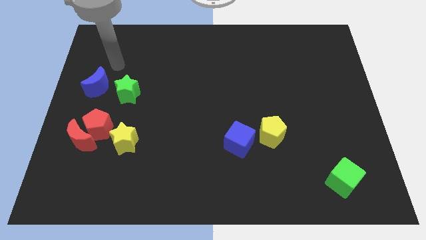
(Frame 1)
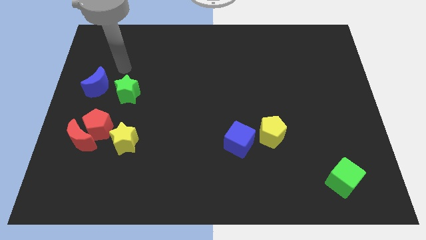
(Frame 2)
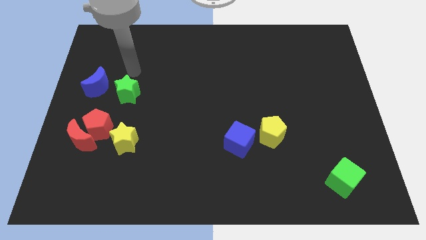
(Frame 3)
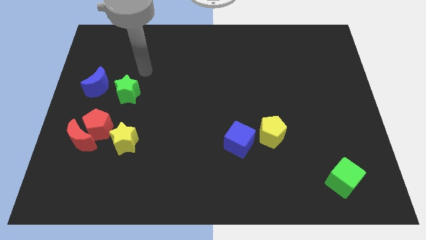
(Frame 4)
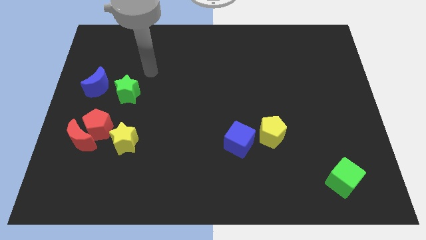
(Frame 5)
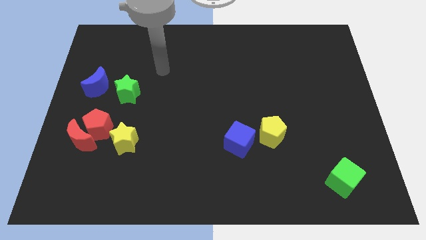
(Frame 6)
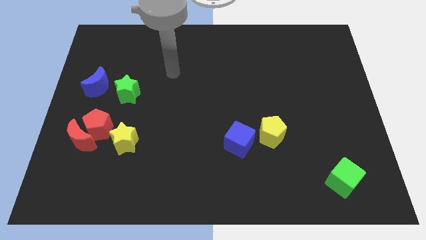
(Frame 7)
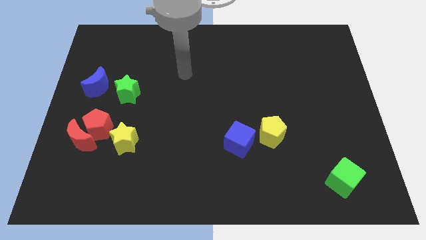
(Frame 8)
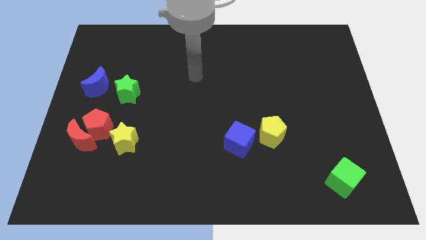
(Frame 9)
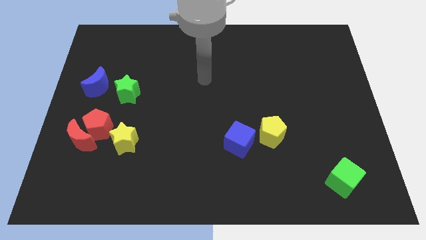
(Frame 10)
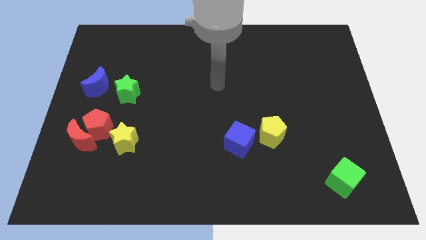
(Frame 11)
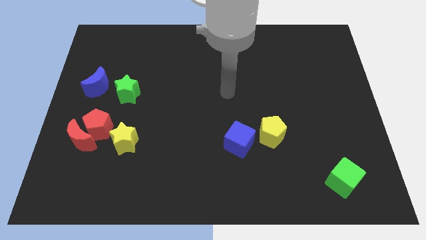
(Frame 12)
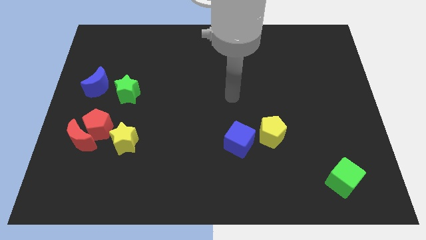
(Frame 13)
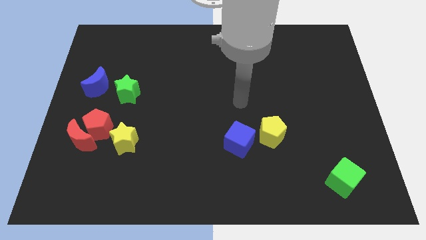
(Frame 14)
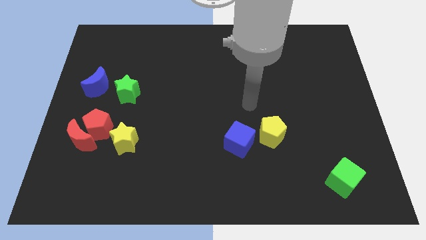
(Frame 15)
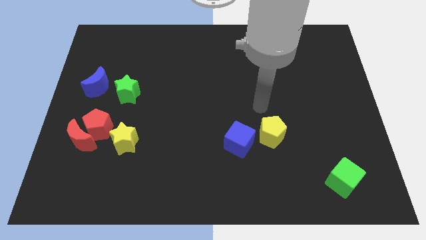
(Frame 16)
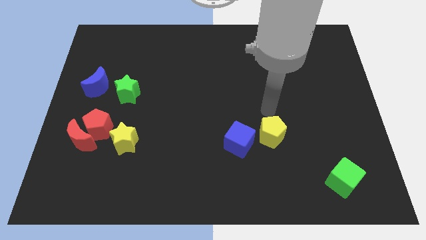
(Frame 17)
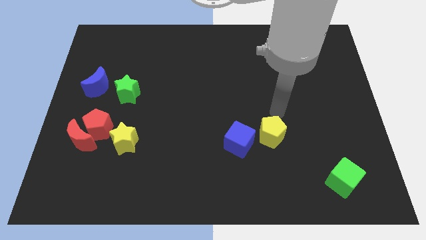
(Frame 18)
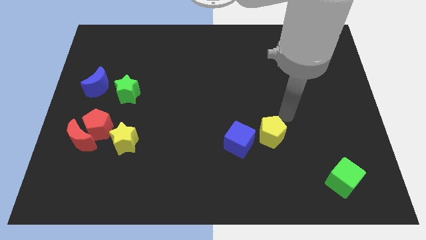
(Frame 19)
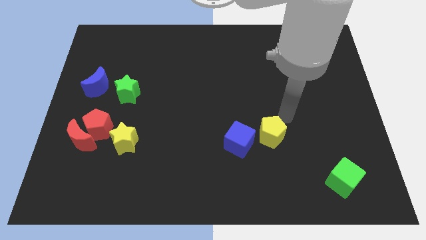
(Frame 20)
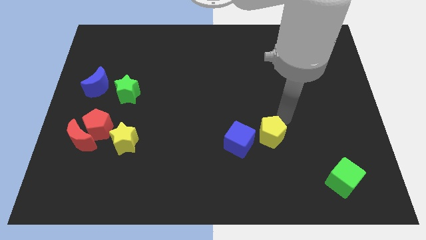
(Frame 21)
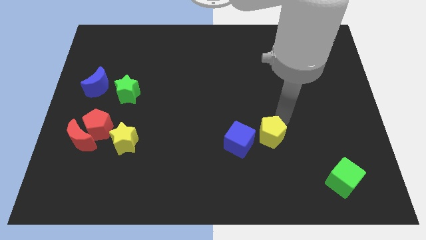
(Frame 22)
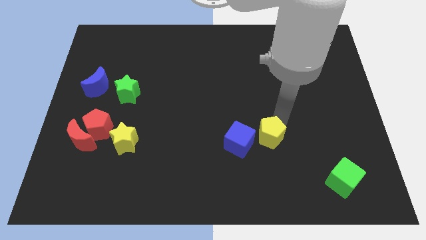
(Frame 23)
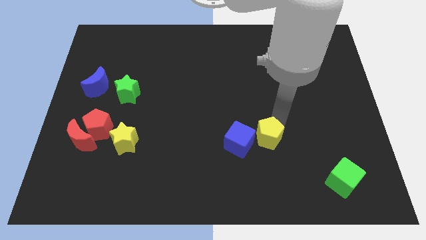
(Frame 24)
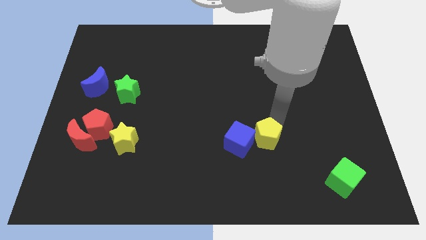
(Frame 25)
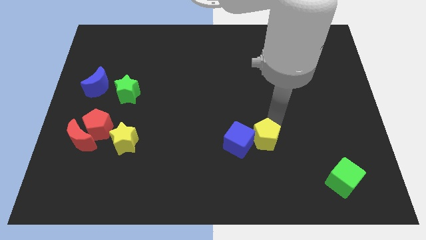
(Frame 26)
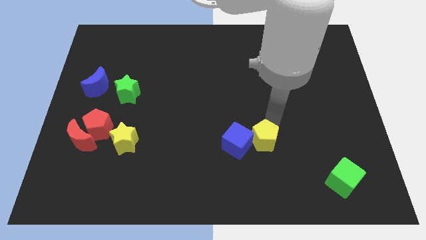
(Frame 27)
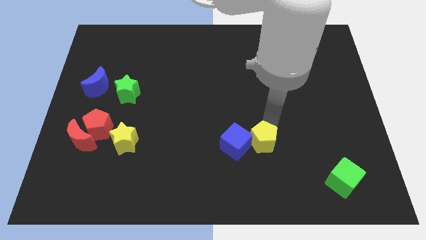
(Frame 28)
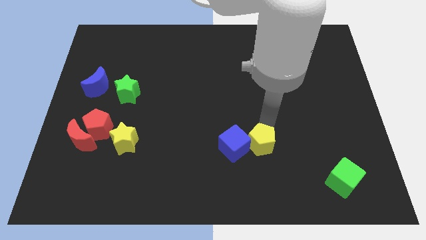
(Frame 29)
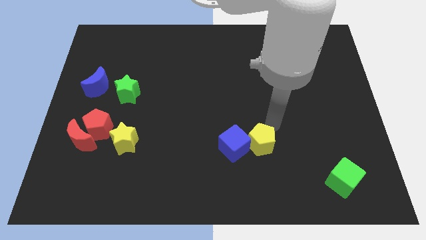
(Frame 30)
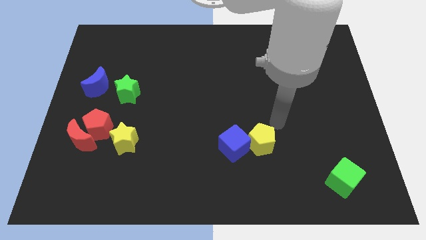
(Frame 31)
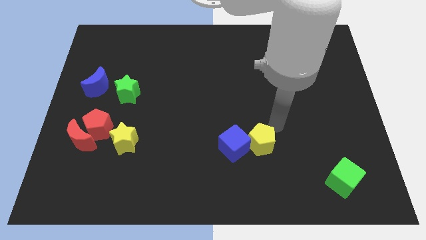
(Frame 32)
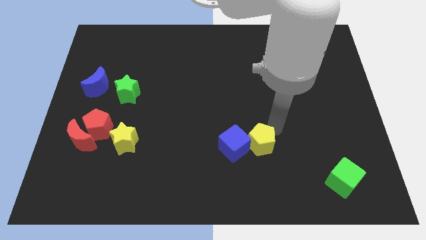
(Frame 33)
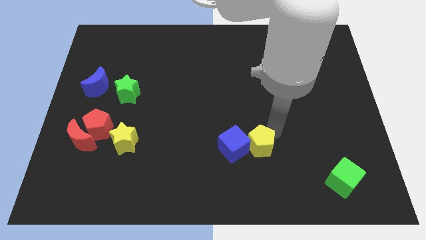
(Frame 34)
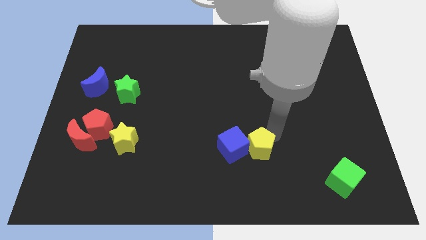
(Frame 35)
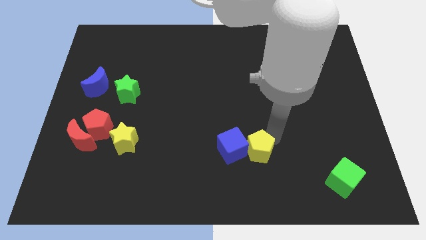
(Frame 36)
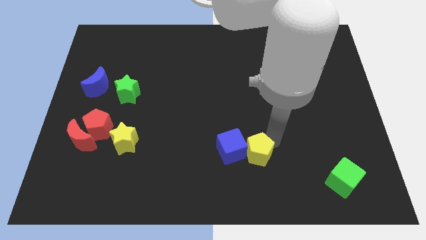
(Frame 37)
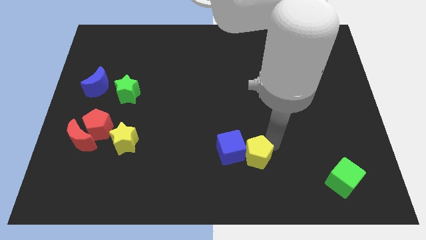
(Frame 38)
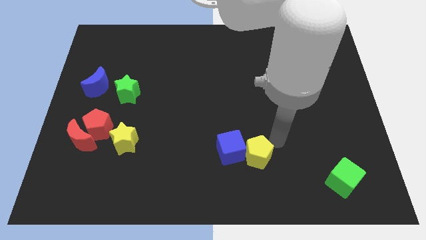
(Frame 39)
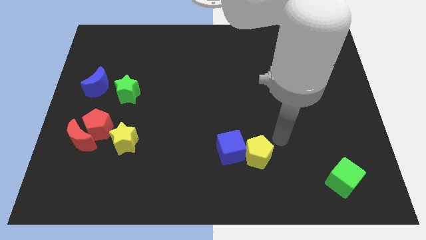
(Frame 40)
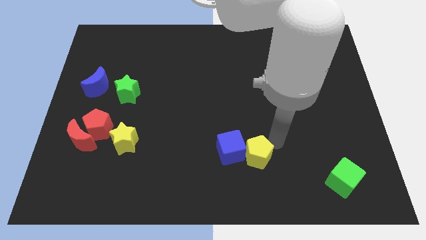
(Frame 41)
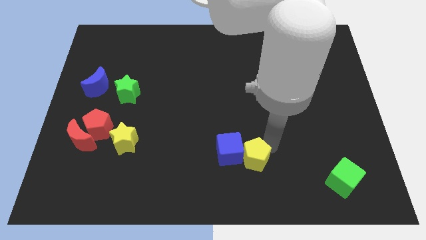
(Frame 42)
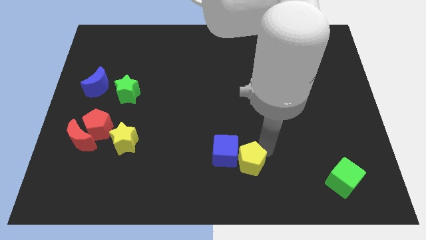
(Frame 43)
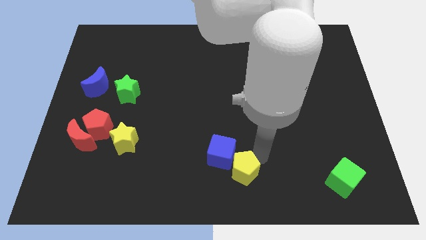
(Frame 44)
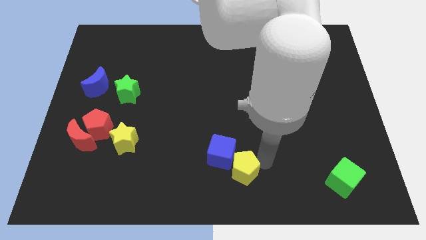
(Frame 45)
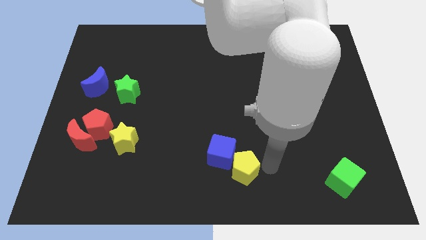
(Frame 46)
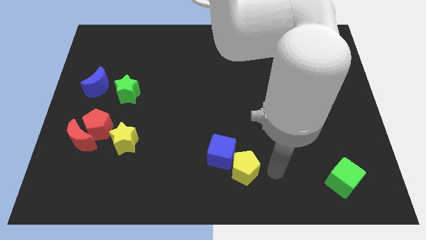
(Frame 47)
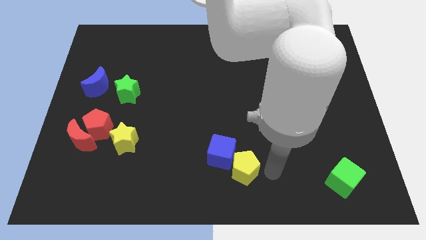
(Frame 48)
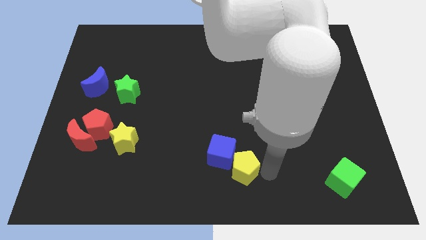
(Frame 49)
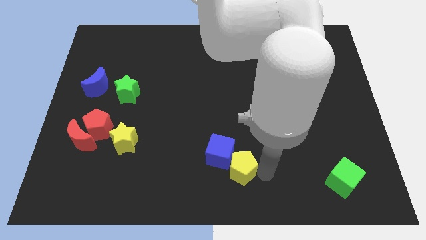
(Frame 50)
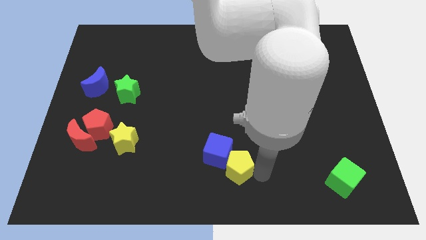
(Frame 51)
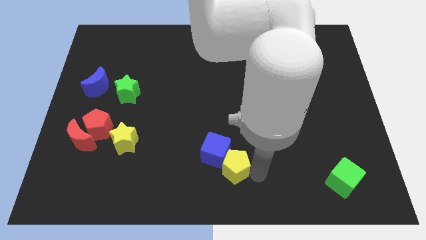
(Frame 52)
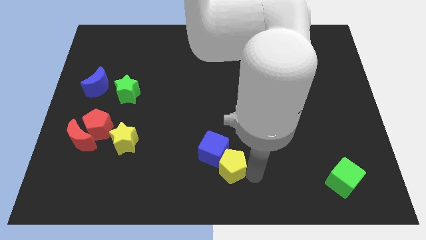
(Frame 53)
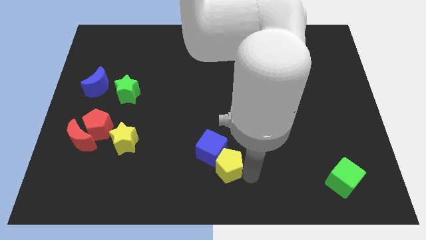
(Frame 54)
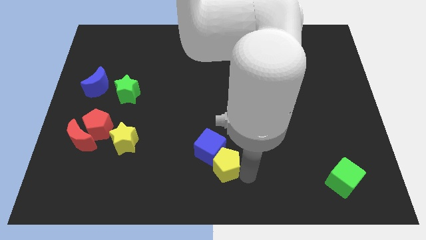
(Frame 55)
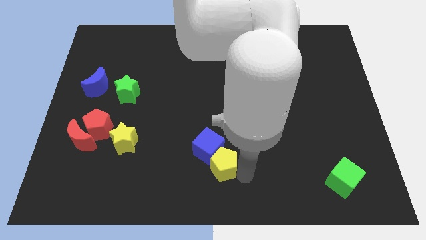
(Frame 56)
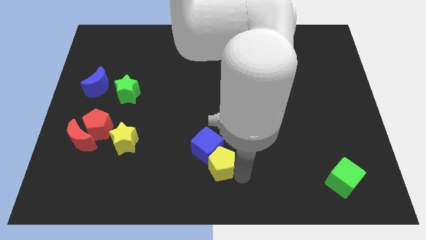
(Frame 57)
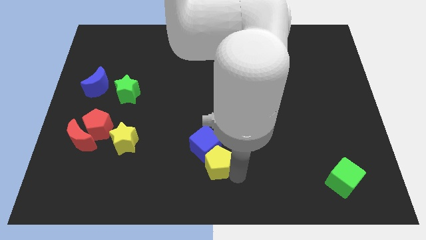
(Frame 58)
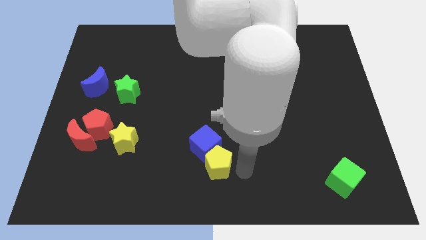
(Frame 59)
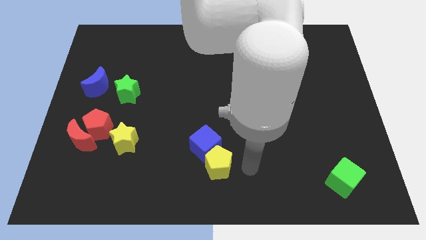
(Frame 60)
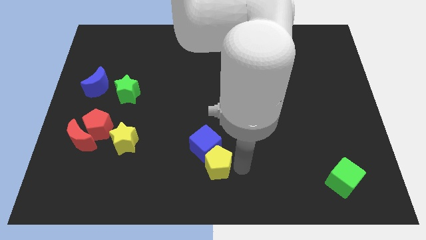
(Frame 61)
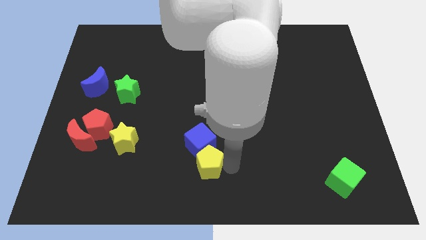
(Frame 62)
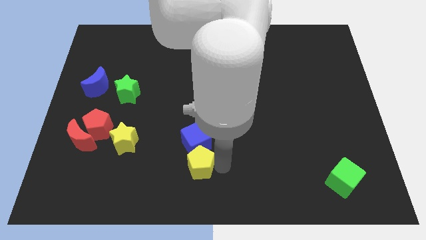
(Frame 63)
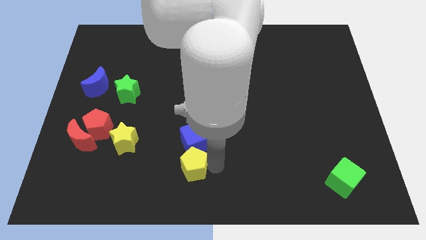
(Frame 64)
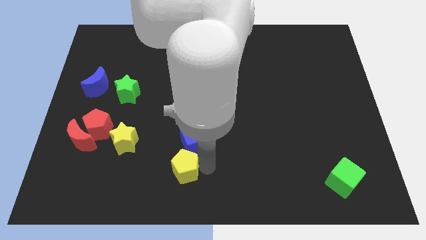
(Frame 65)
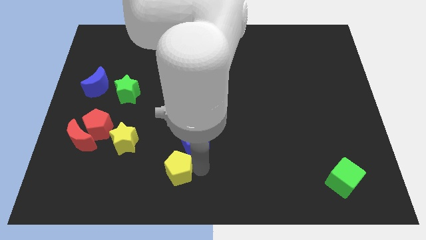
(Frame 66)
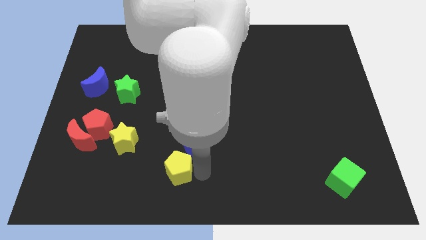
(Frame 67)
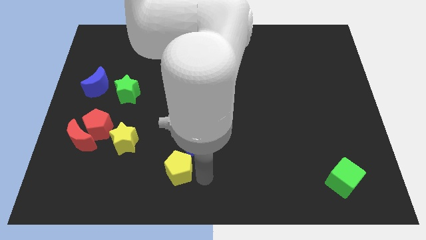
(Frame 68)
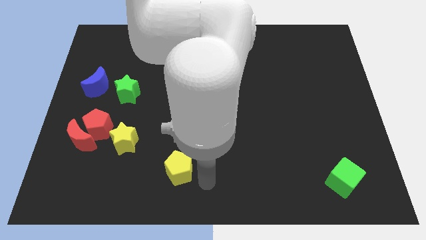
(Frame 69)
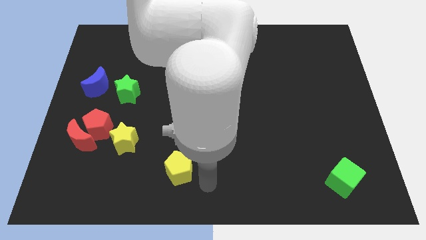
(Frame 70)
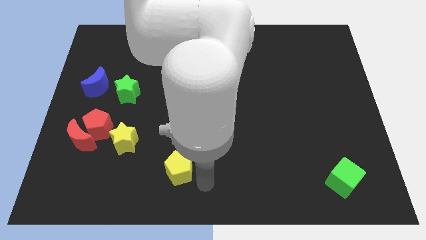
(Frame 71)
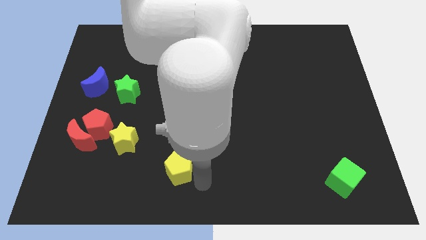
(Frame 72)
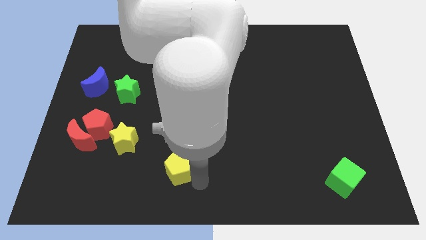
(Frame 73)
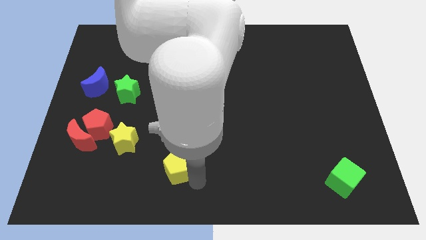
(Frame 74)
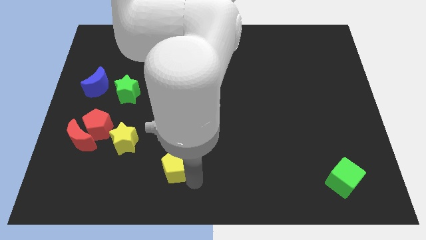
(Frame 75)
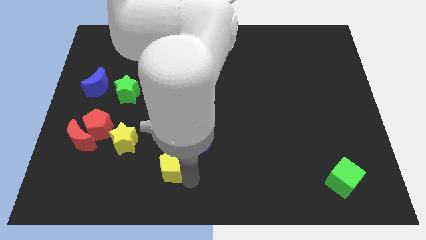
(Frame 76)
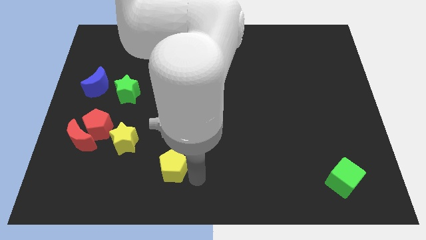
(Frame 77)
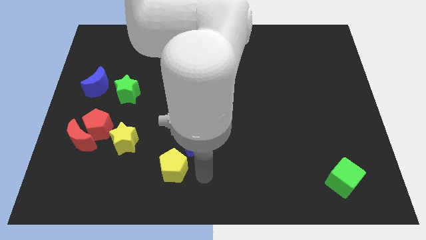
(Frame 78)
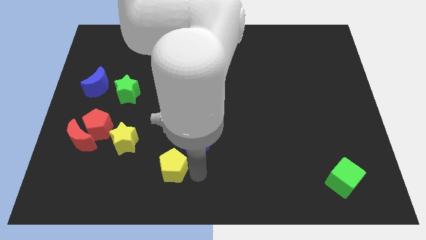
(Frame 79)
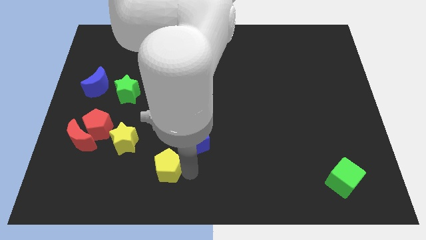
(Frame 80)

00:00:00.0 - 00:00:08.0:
move the yellow pentagon to the bottom right side of the yellow star
